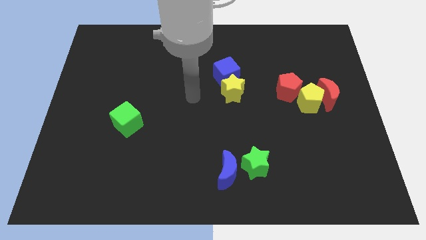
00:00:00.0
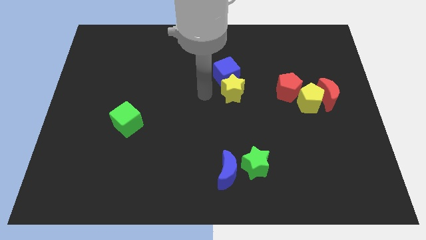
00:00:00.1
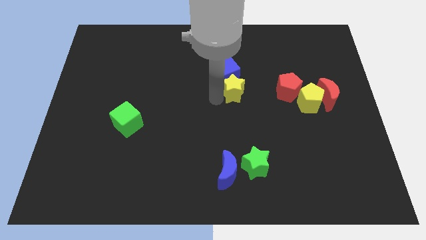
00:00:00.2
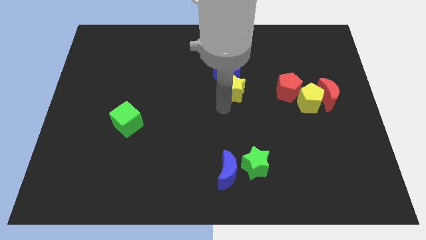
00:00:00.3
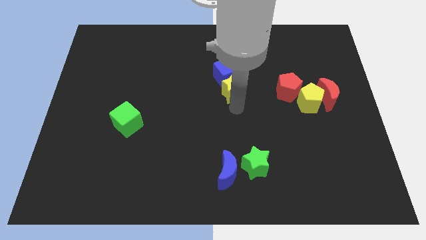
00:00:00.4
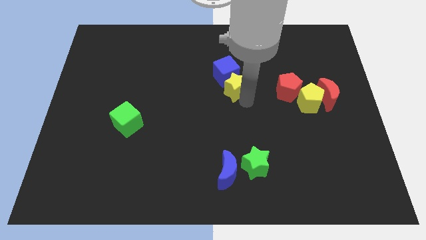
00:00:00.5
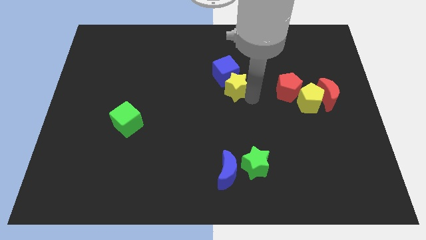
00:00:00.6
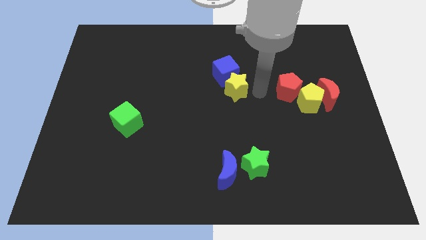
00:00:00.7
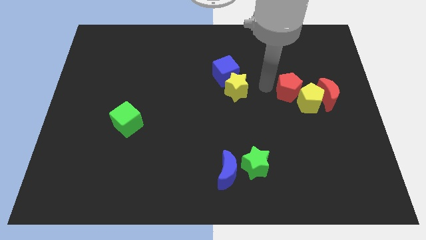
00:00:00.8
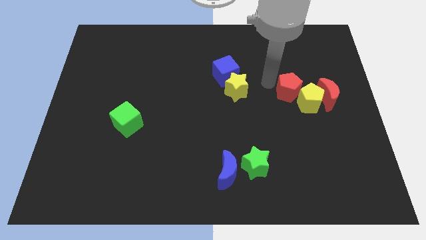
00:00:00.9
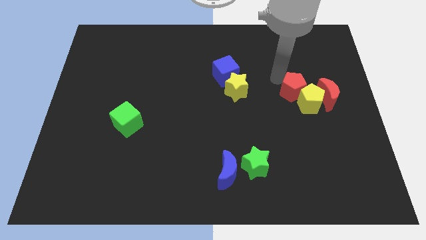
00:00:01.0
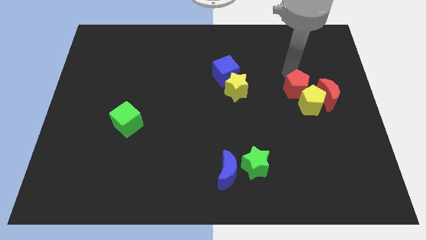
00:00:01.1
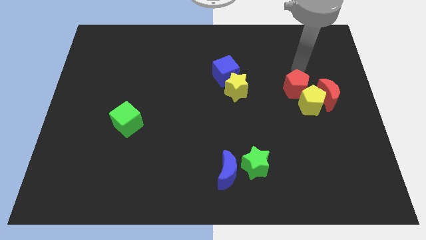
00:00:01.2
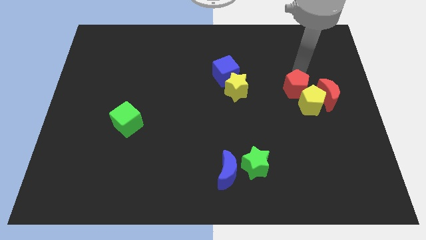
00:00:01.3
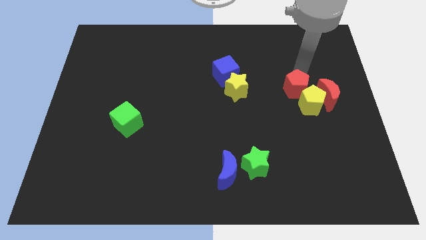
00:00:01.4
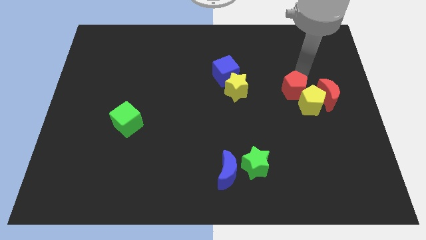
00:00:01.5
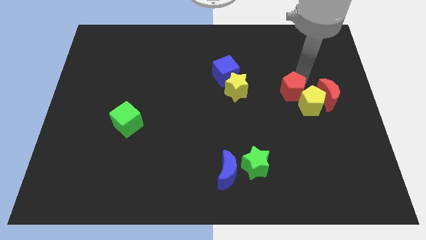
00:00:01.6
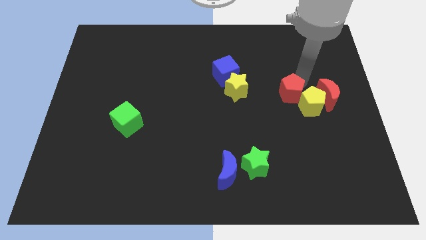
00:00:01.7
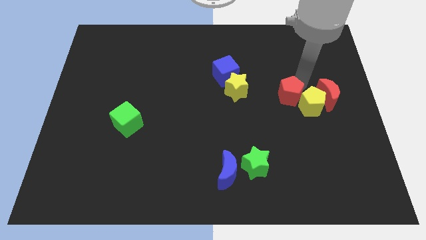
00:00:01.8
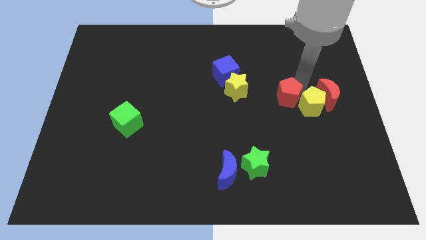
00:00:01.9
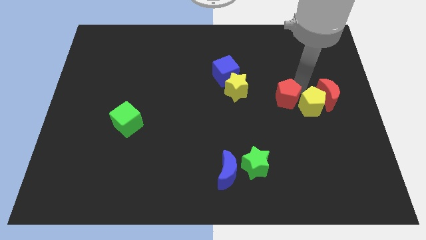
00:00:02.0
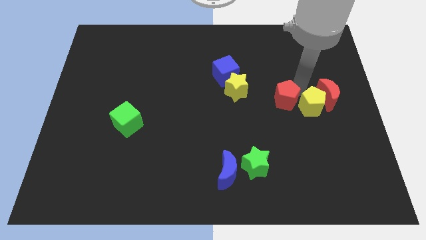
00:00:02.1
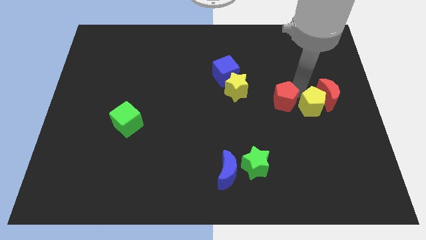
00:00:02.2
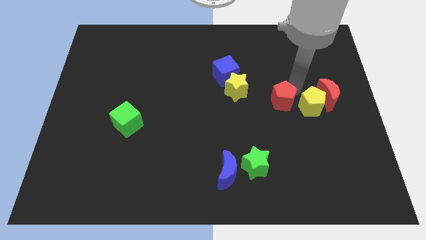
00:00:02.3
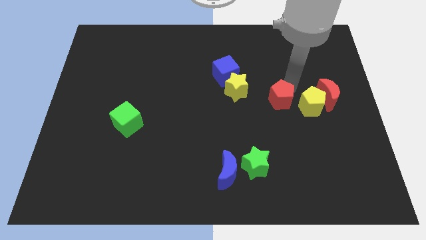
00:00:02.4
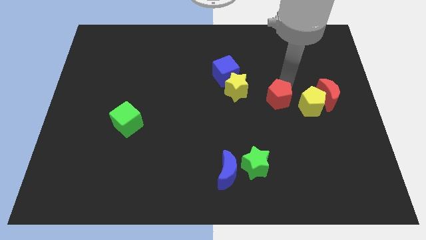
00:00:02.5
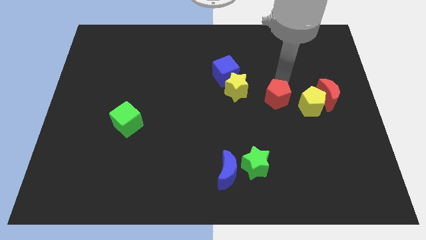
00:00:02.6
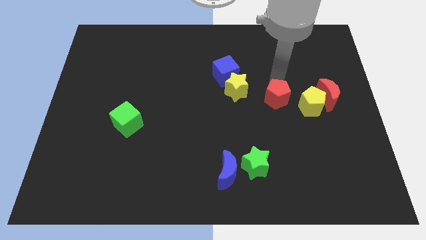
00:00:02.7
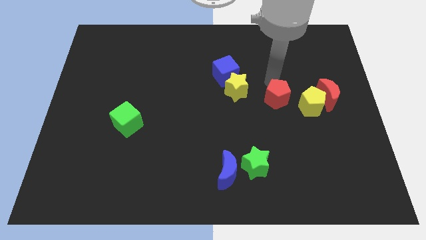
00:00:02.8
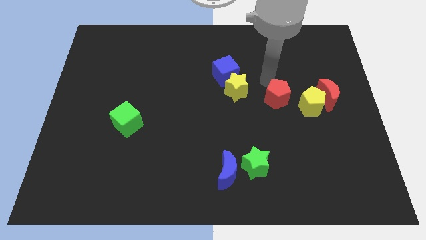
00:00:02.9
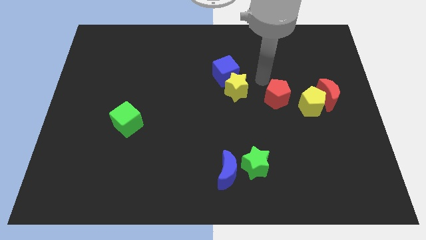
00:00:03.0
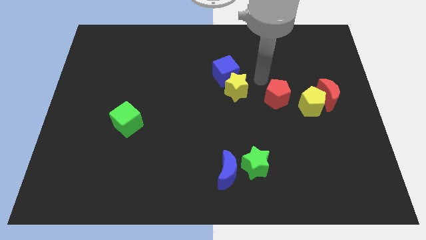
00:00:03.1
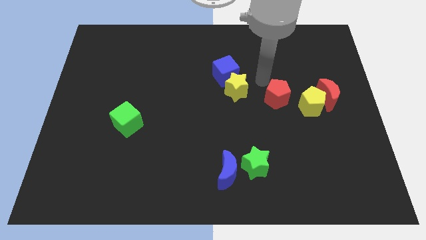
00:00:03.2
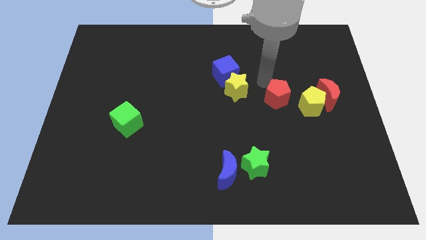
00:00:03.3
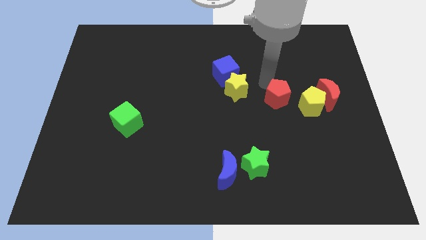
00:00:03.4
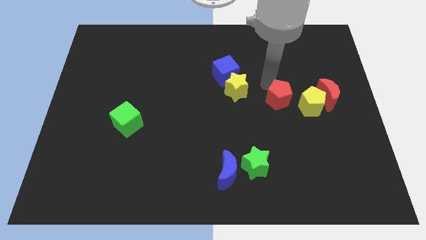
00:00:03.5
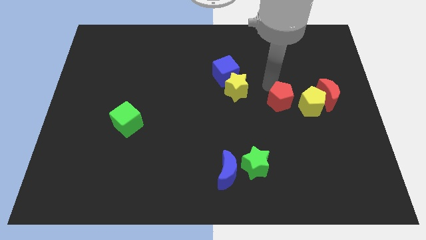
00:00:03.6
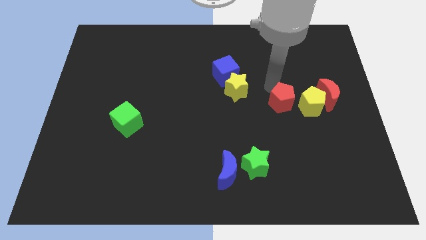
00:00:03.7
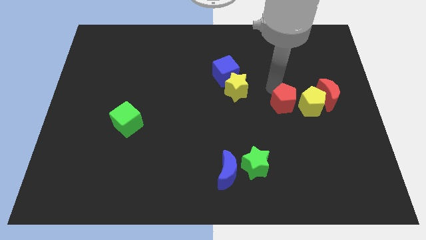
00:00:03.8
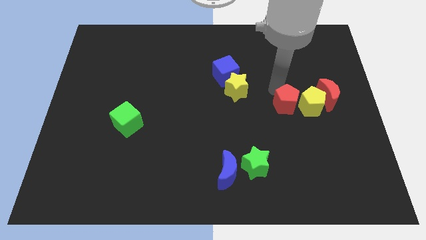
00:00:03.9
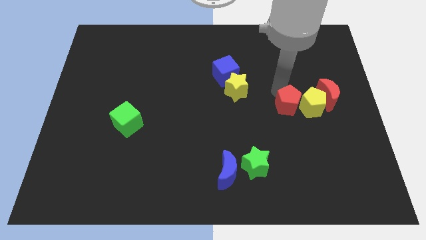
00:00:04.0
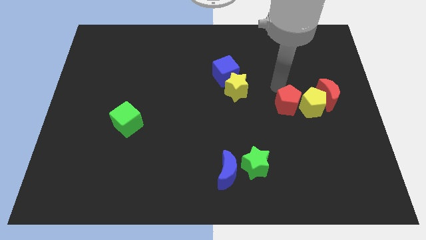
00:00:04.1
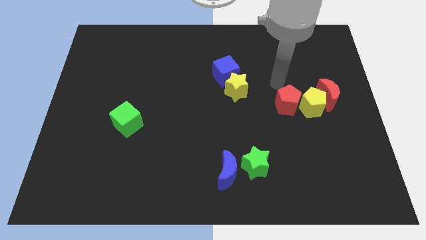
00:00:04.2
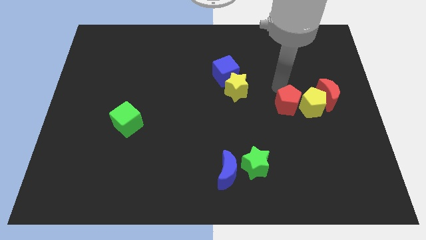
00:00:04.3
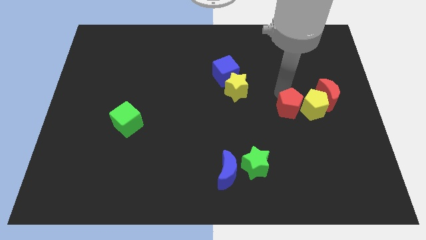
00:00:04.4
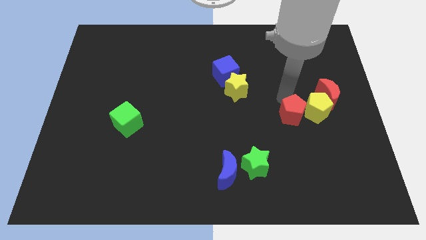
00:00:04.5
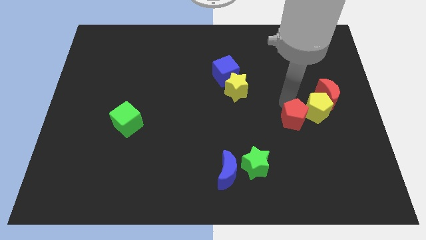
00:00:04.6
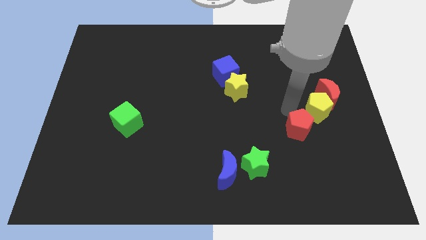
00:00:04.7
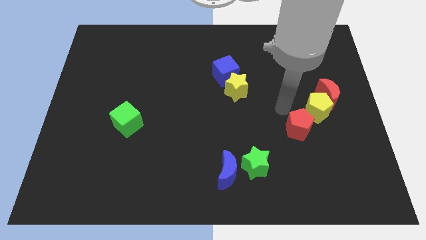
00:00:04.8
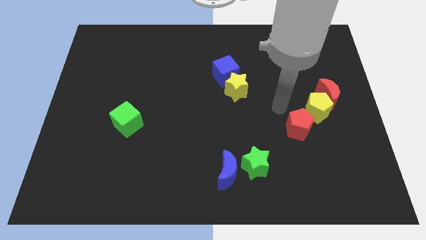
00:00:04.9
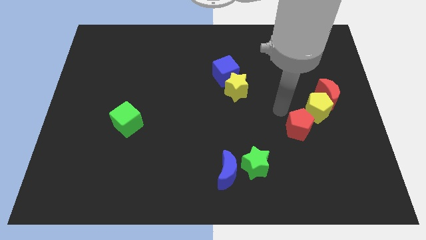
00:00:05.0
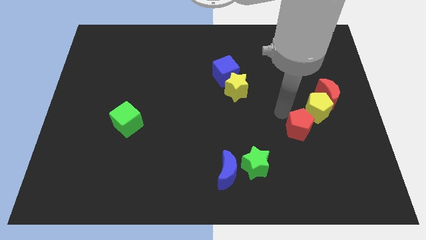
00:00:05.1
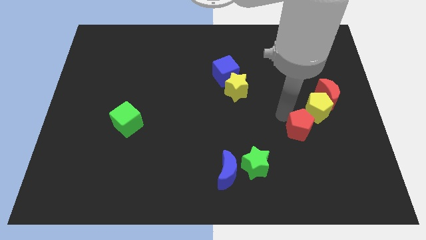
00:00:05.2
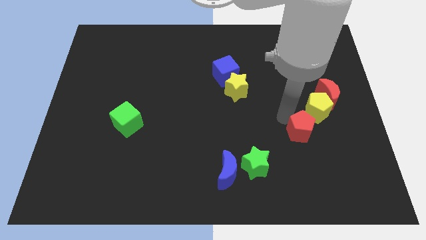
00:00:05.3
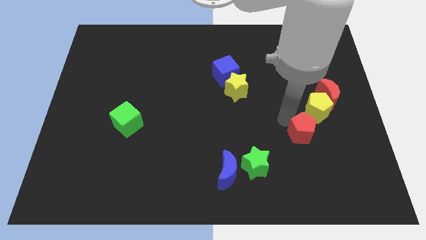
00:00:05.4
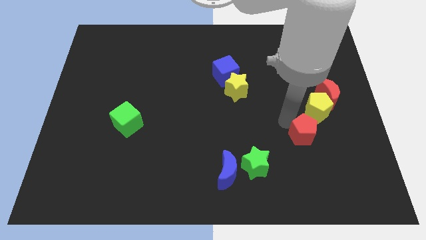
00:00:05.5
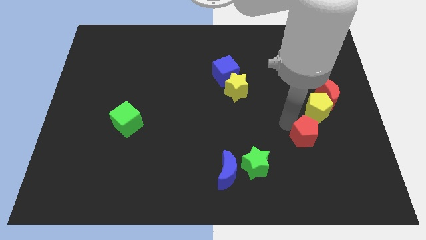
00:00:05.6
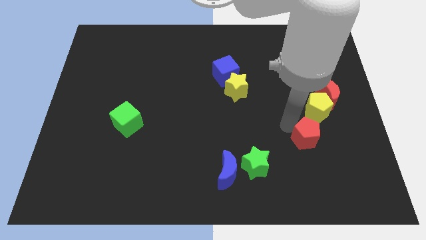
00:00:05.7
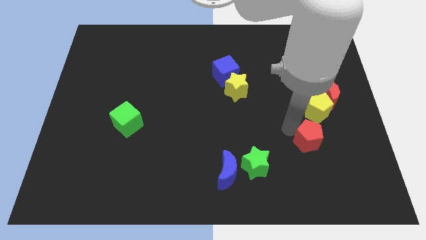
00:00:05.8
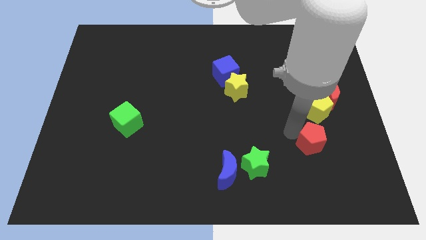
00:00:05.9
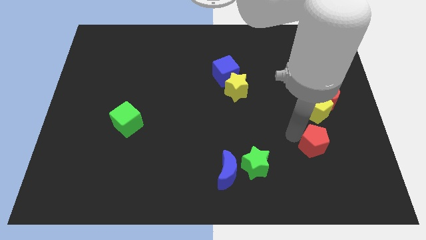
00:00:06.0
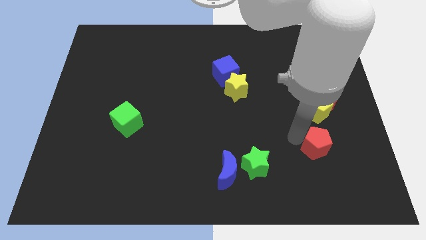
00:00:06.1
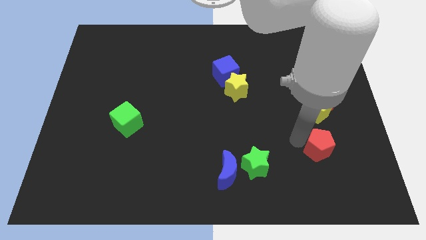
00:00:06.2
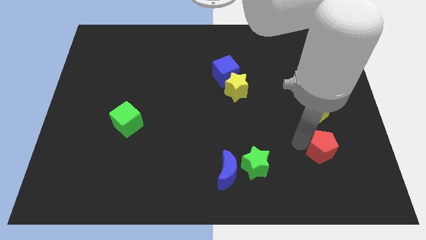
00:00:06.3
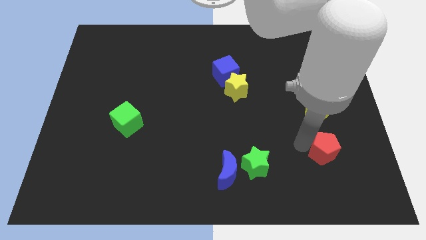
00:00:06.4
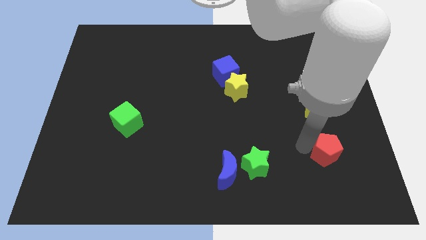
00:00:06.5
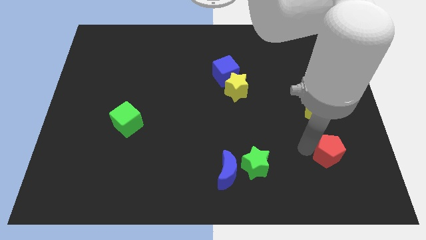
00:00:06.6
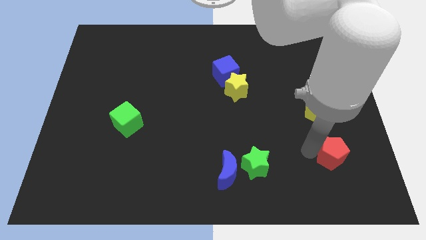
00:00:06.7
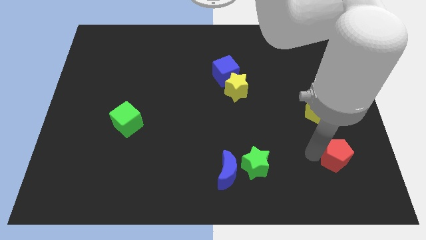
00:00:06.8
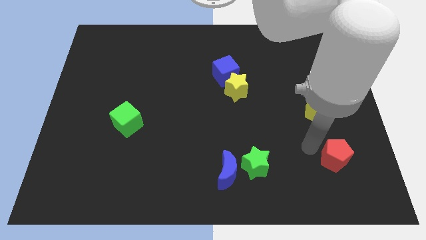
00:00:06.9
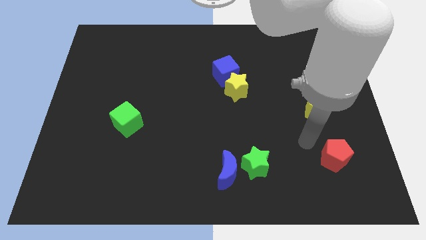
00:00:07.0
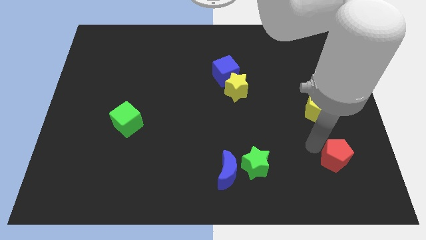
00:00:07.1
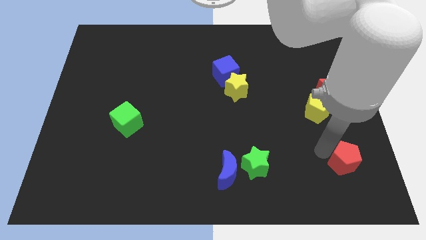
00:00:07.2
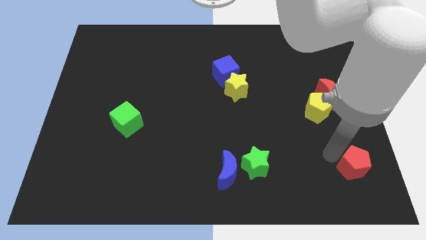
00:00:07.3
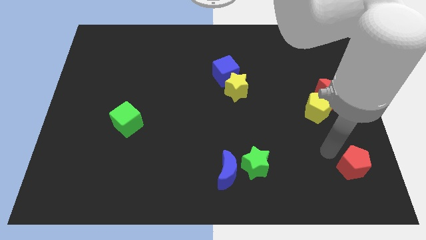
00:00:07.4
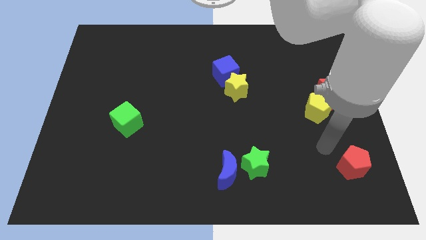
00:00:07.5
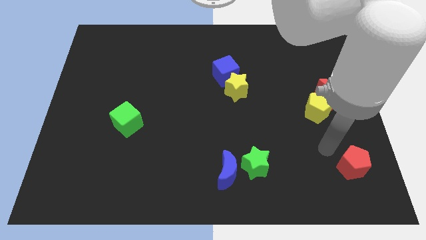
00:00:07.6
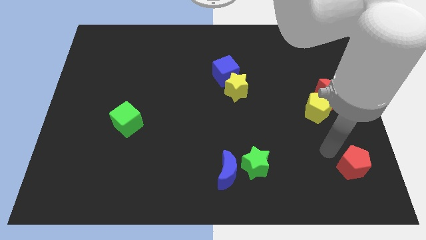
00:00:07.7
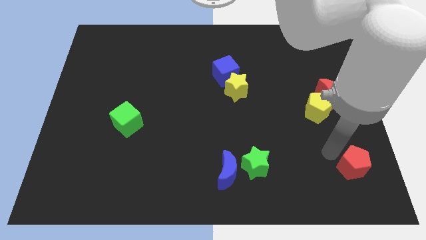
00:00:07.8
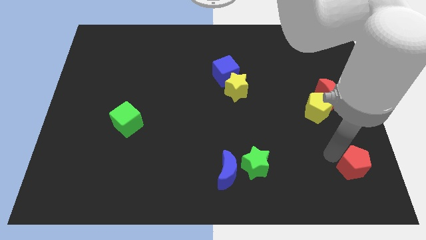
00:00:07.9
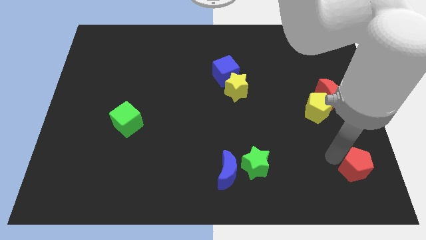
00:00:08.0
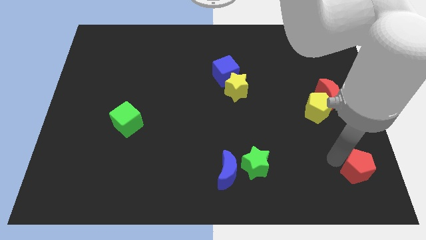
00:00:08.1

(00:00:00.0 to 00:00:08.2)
put the red pentagon to the bottom right corner
